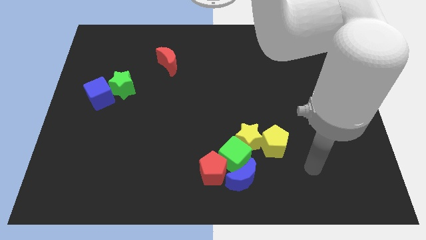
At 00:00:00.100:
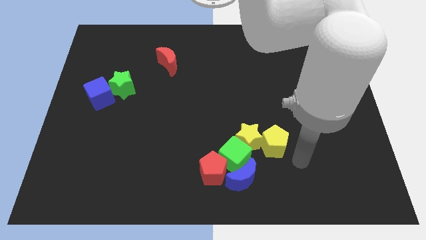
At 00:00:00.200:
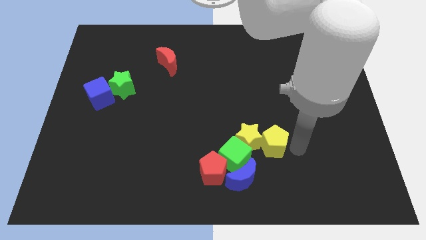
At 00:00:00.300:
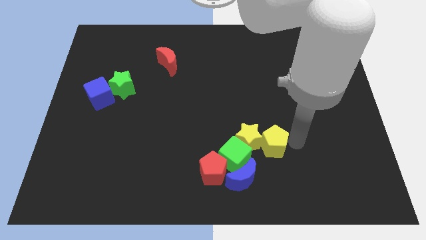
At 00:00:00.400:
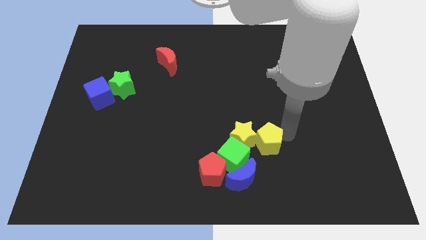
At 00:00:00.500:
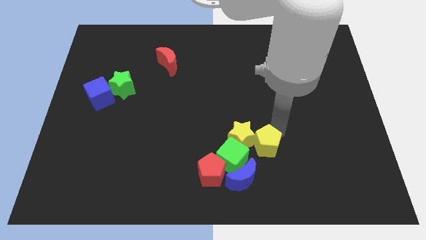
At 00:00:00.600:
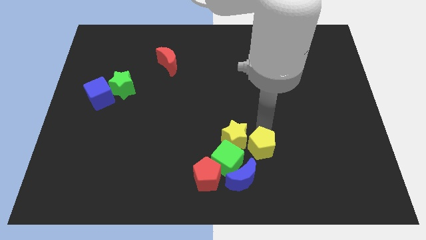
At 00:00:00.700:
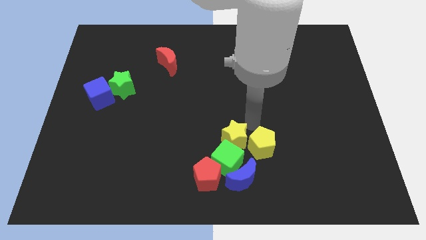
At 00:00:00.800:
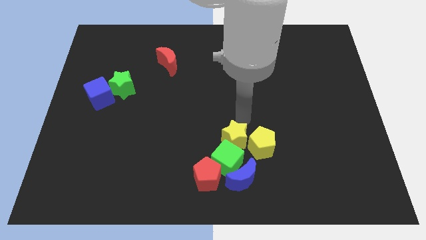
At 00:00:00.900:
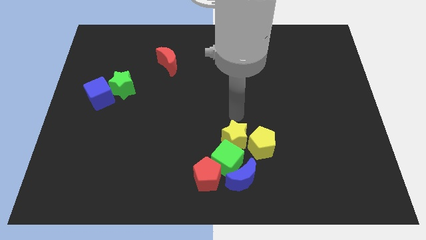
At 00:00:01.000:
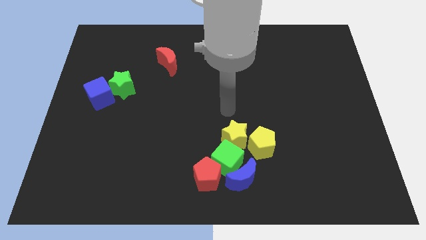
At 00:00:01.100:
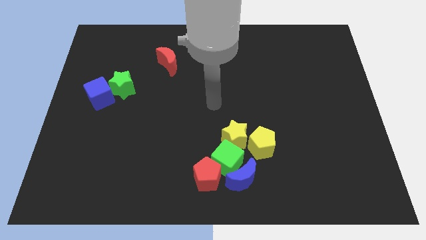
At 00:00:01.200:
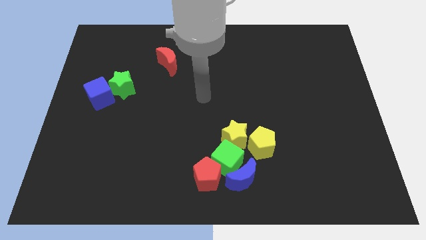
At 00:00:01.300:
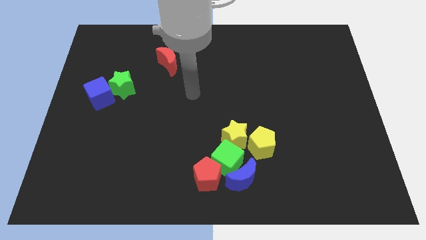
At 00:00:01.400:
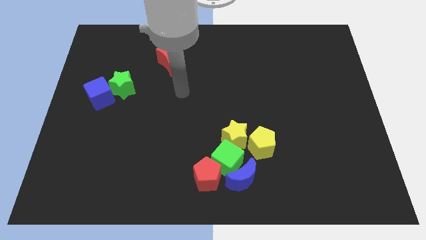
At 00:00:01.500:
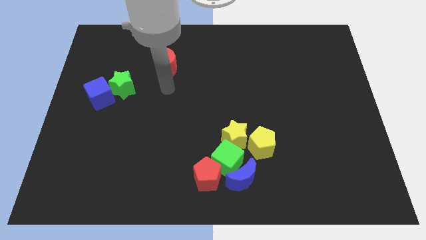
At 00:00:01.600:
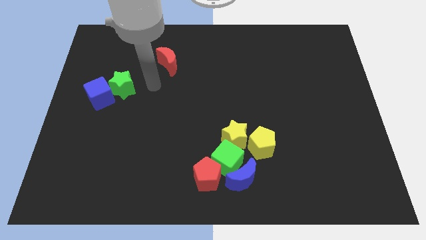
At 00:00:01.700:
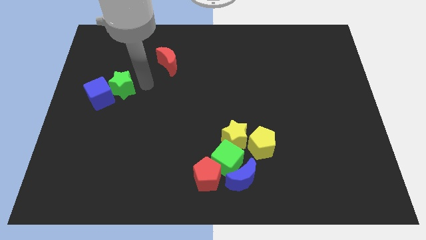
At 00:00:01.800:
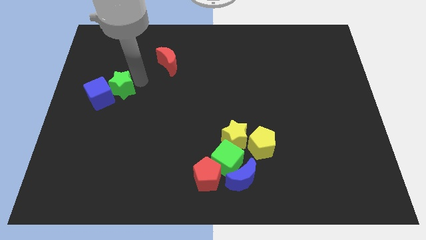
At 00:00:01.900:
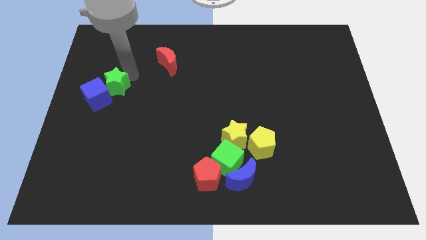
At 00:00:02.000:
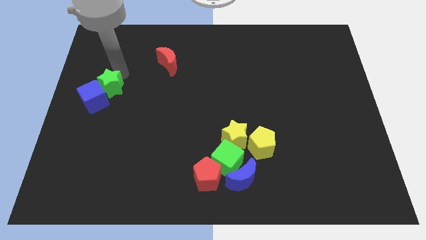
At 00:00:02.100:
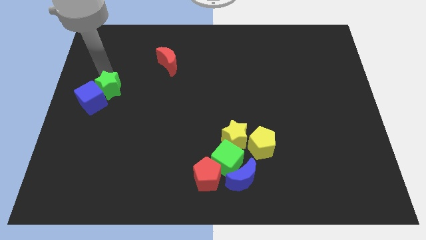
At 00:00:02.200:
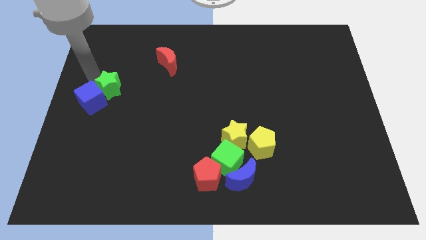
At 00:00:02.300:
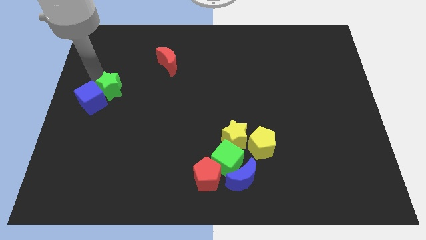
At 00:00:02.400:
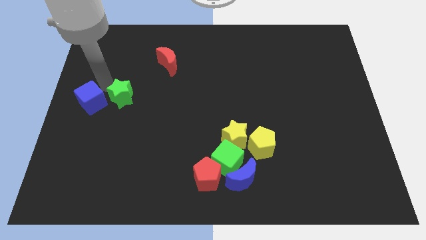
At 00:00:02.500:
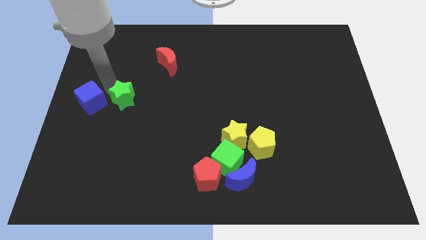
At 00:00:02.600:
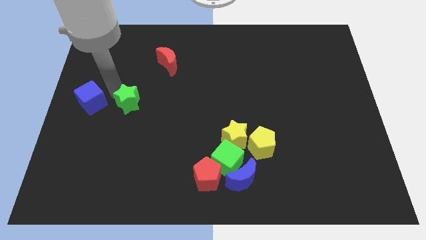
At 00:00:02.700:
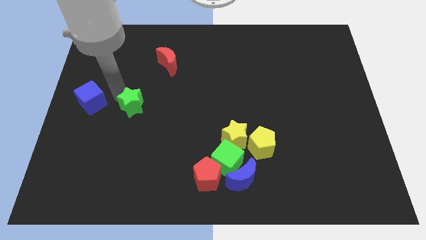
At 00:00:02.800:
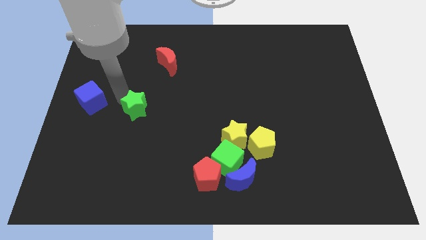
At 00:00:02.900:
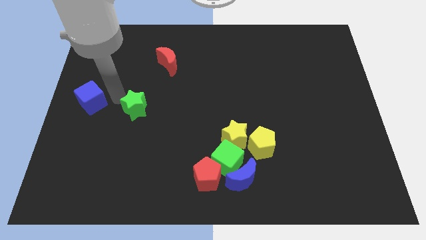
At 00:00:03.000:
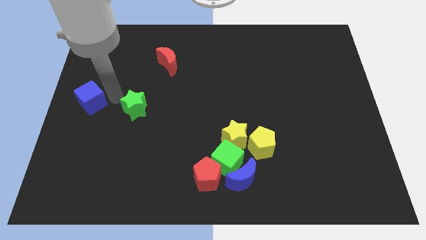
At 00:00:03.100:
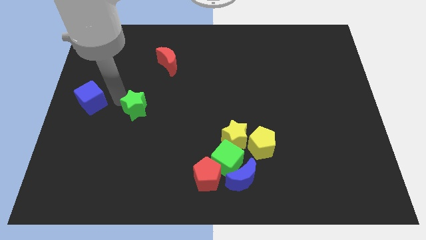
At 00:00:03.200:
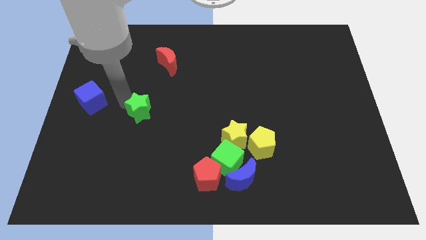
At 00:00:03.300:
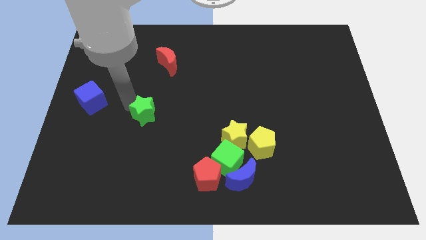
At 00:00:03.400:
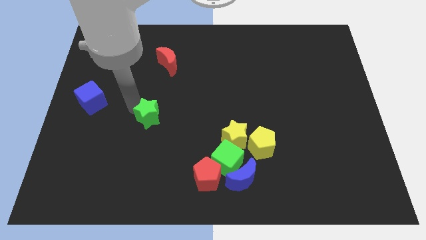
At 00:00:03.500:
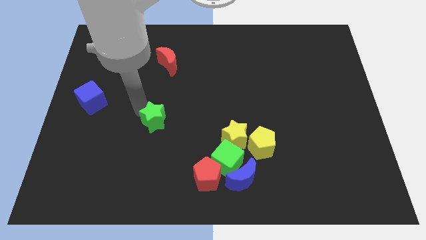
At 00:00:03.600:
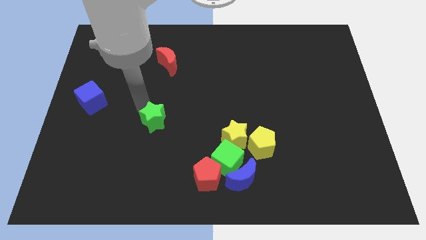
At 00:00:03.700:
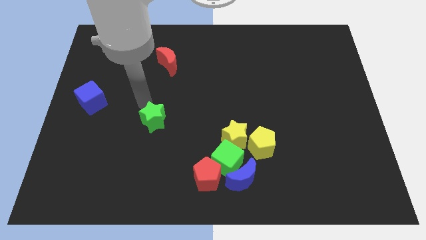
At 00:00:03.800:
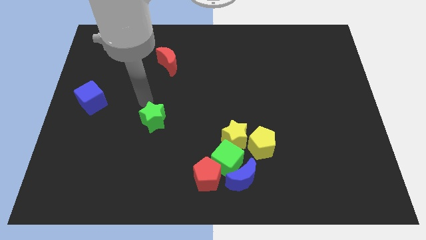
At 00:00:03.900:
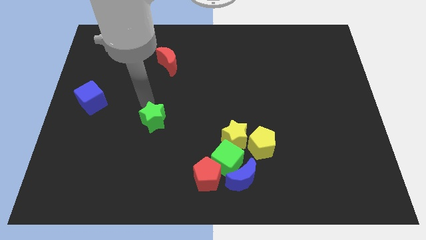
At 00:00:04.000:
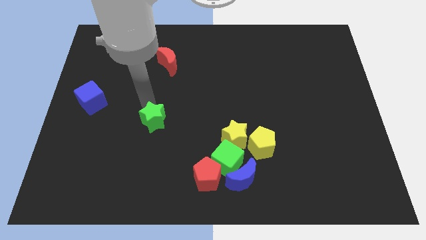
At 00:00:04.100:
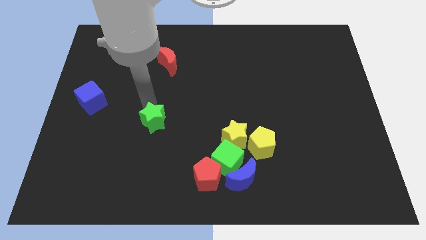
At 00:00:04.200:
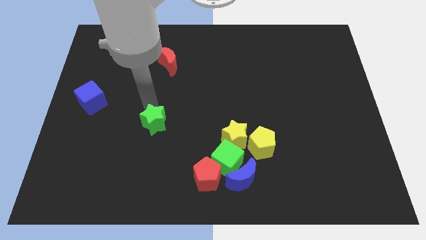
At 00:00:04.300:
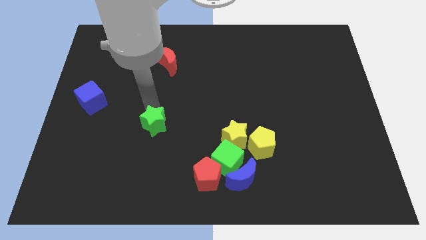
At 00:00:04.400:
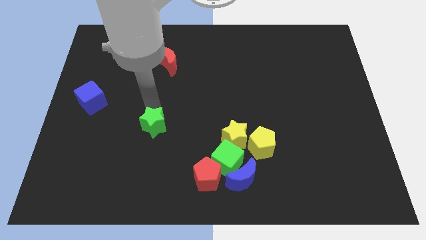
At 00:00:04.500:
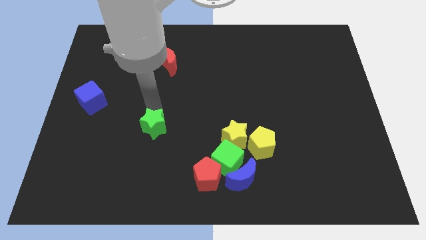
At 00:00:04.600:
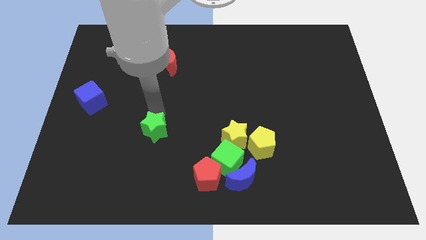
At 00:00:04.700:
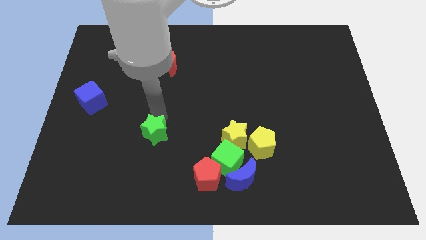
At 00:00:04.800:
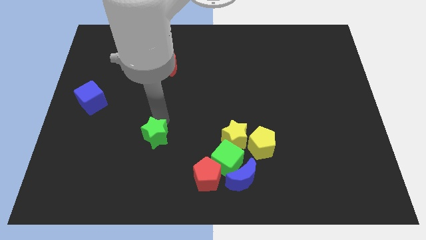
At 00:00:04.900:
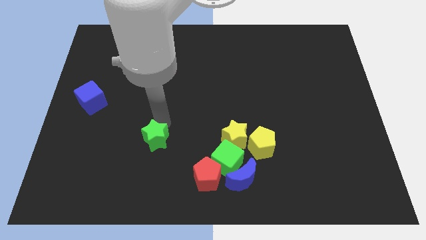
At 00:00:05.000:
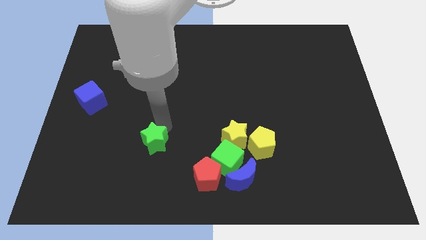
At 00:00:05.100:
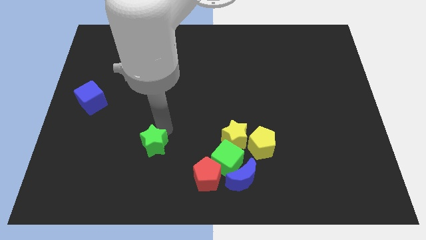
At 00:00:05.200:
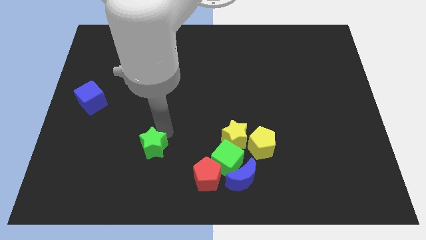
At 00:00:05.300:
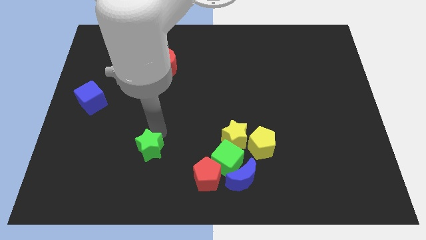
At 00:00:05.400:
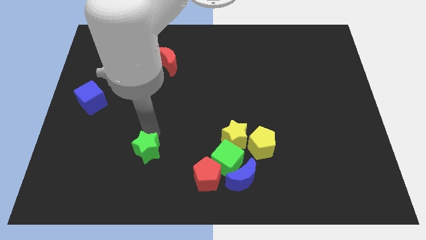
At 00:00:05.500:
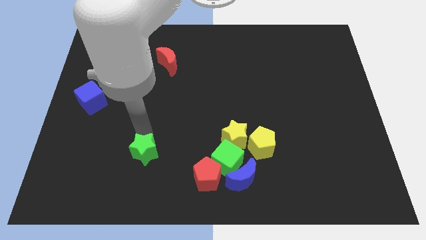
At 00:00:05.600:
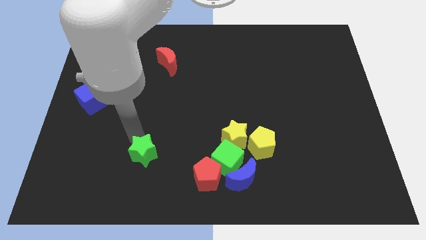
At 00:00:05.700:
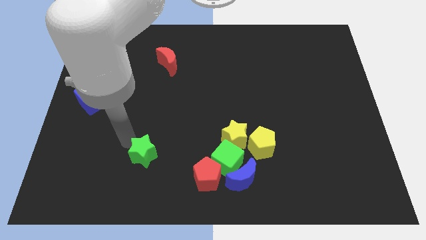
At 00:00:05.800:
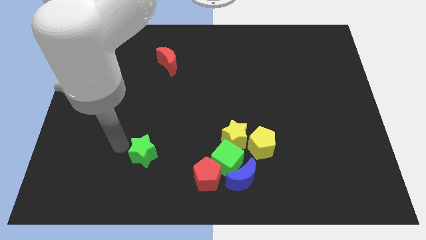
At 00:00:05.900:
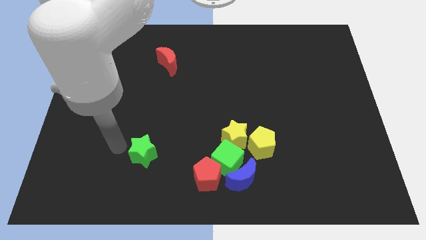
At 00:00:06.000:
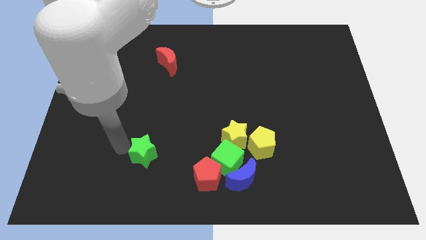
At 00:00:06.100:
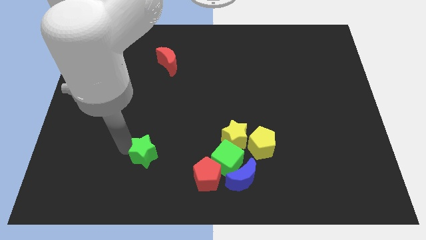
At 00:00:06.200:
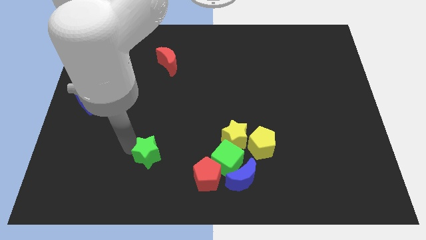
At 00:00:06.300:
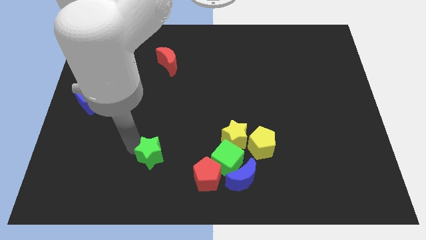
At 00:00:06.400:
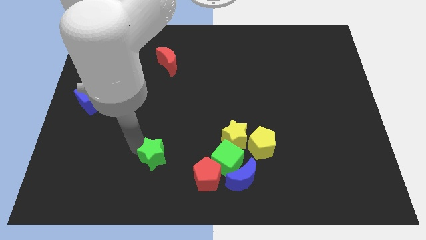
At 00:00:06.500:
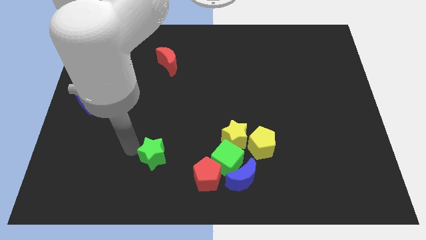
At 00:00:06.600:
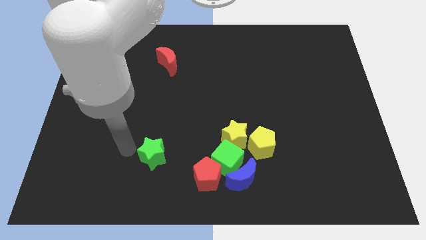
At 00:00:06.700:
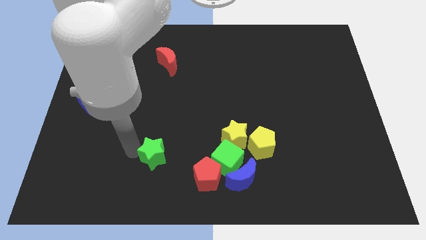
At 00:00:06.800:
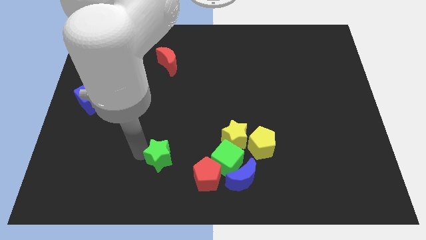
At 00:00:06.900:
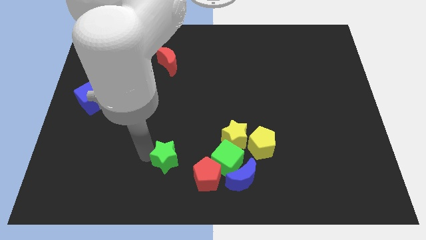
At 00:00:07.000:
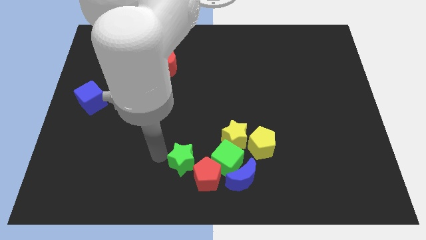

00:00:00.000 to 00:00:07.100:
move the green star to the bottom
